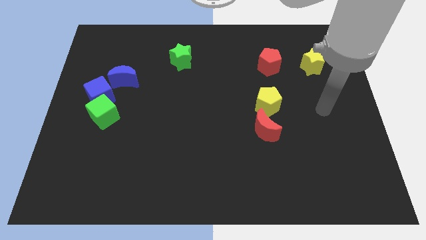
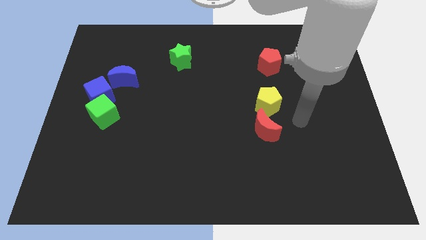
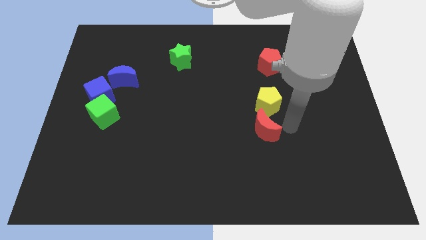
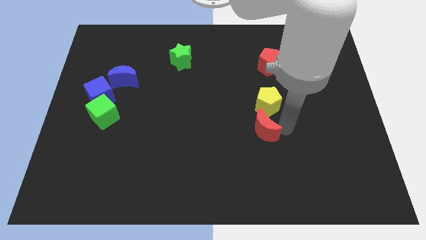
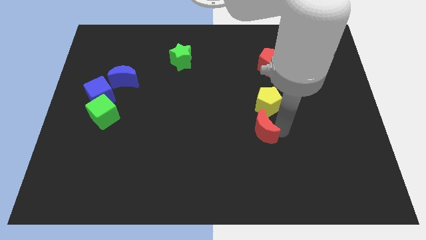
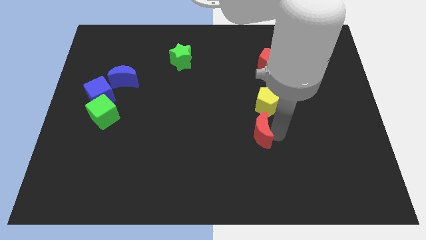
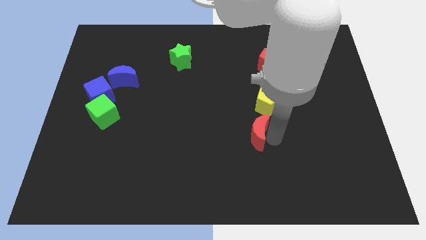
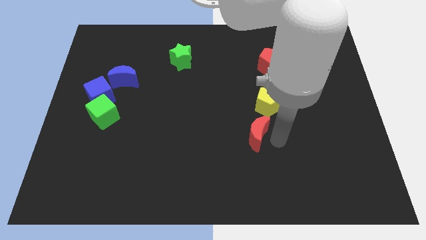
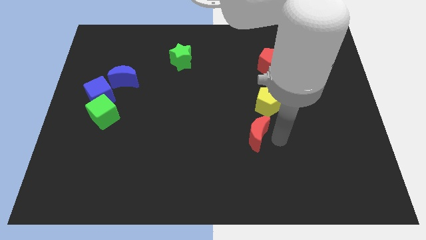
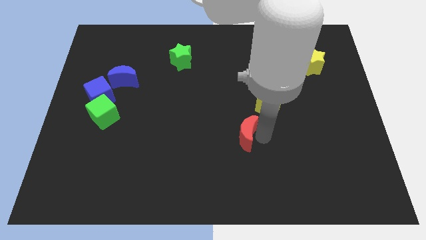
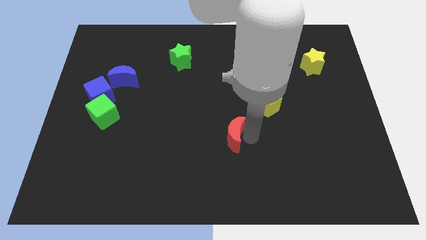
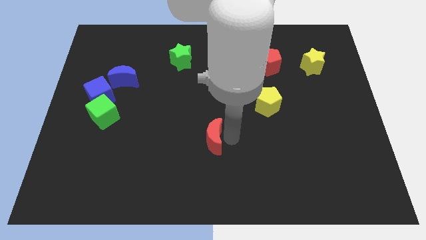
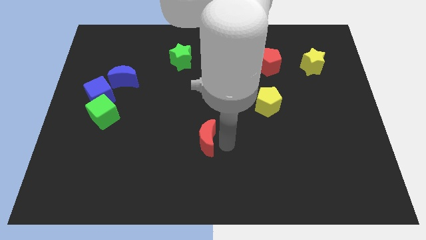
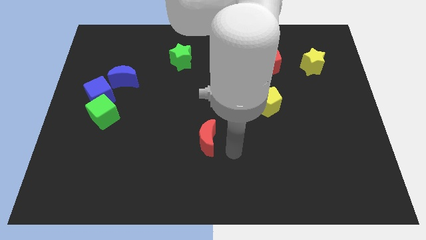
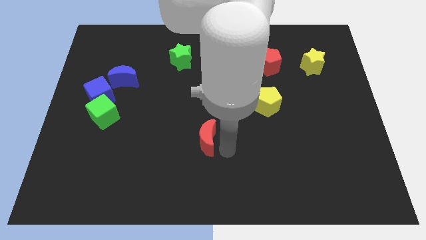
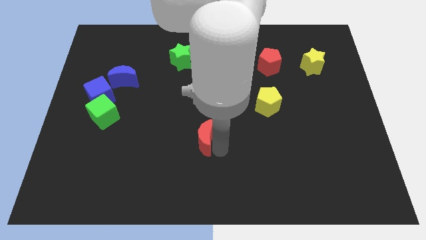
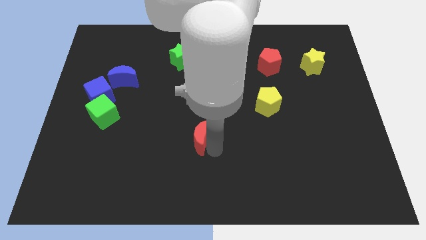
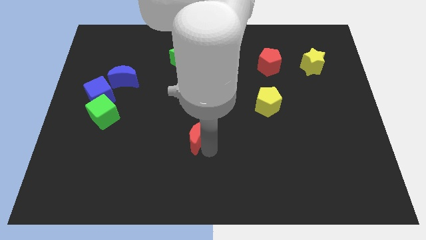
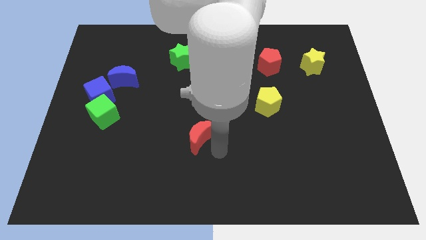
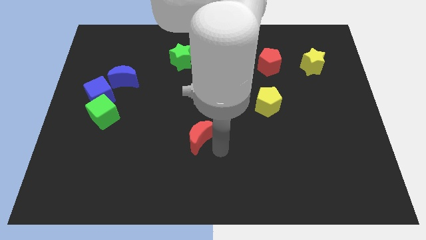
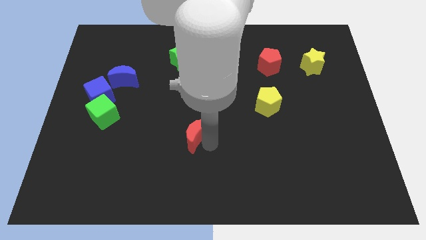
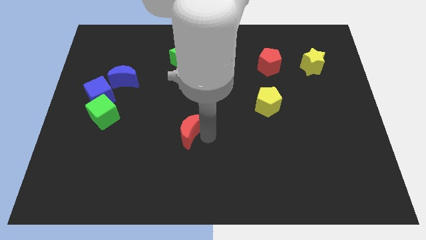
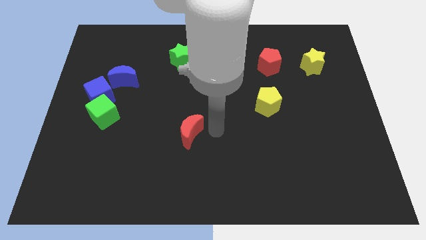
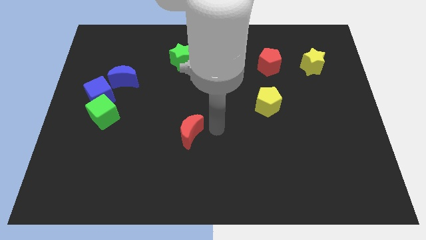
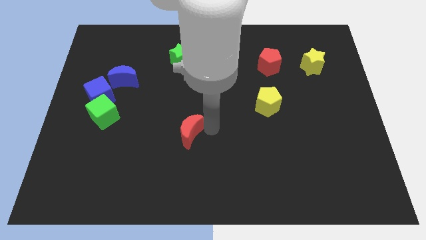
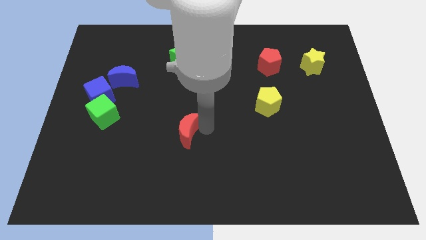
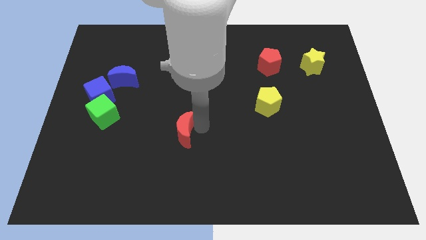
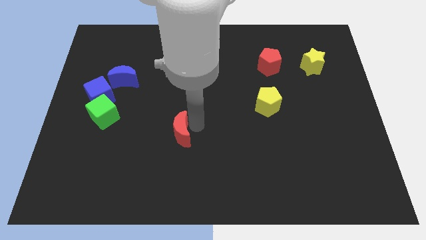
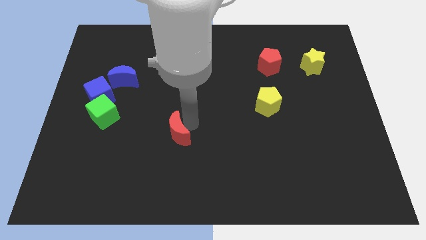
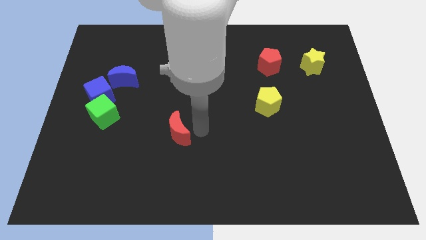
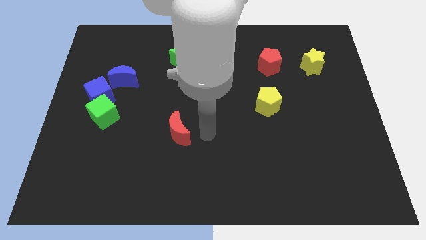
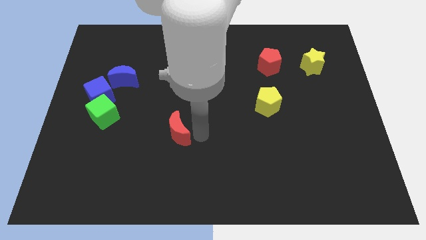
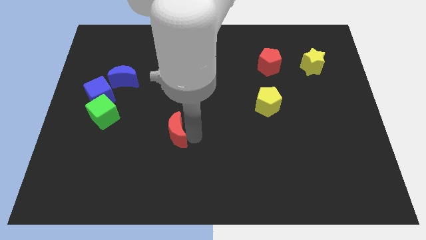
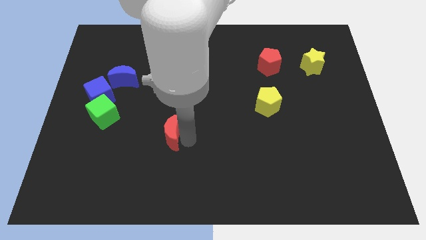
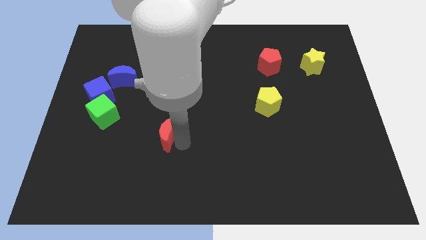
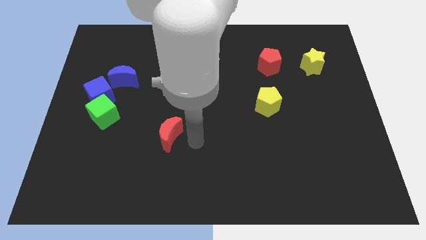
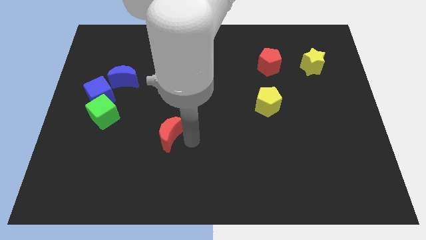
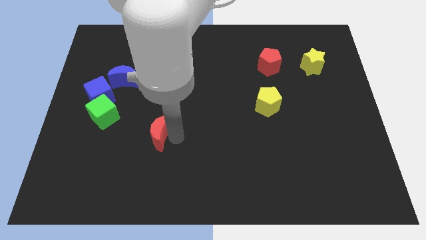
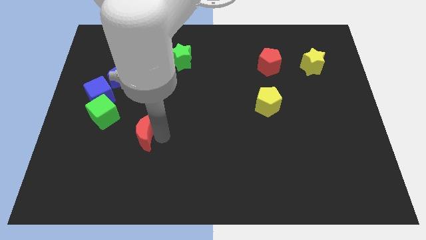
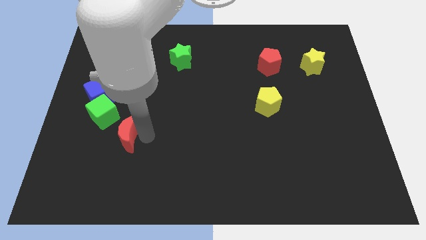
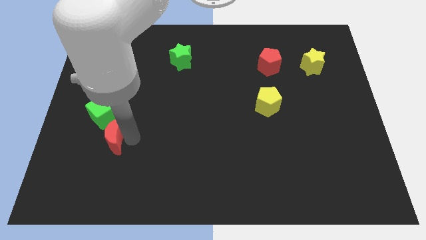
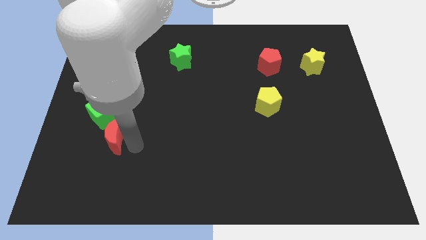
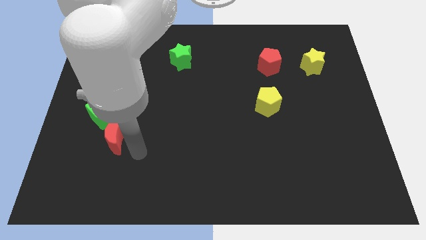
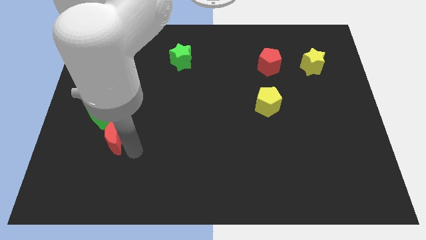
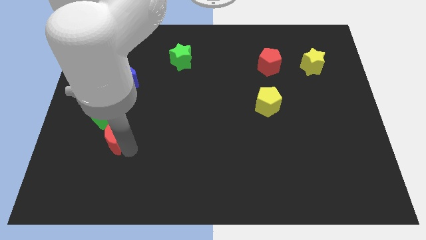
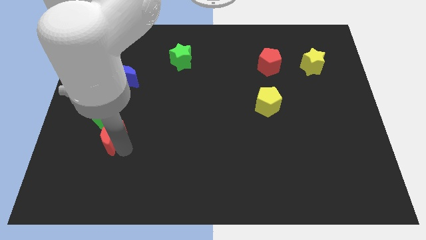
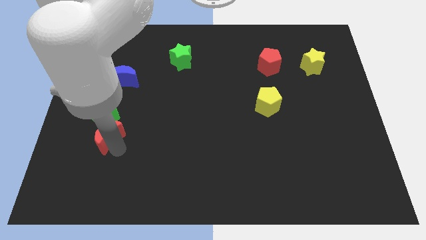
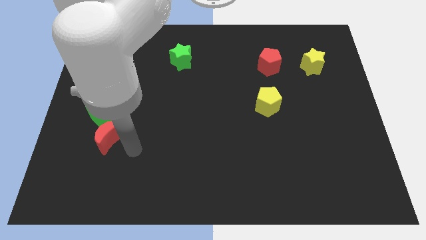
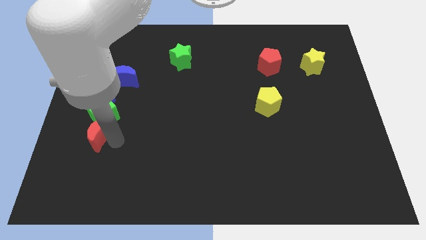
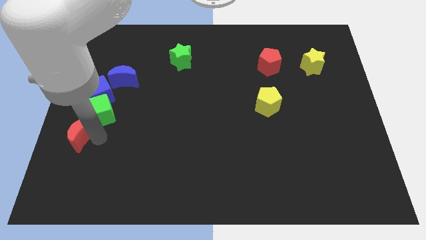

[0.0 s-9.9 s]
move the red moon to the center left

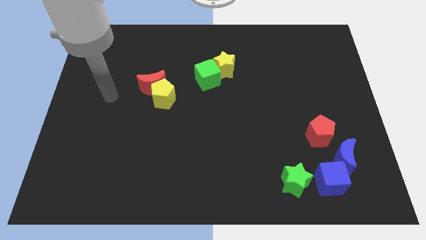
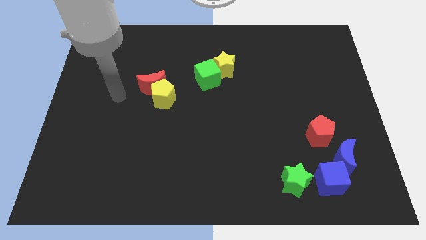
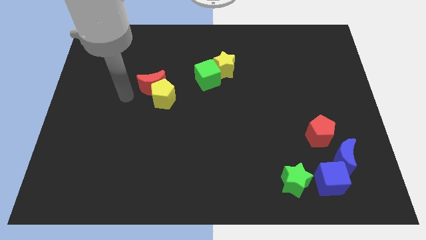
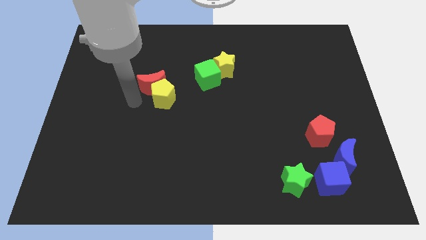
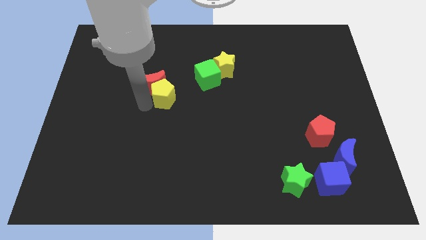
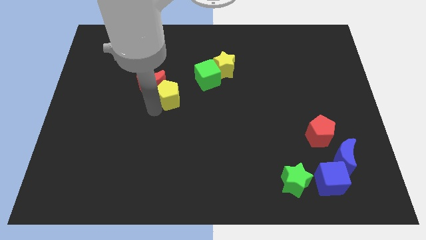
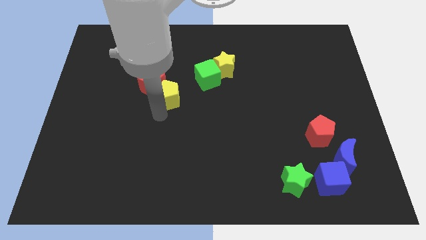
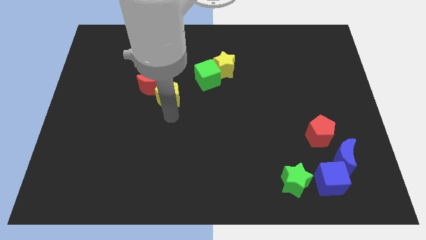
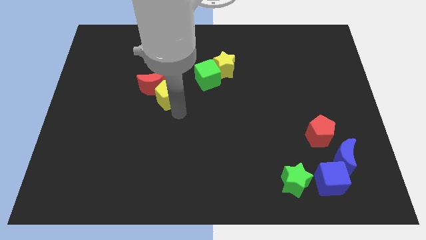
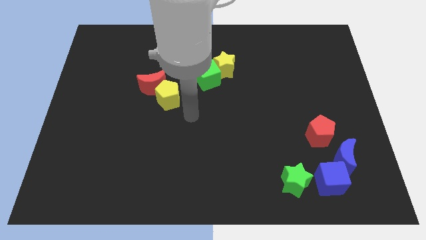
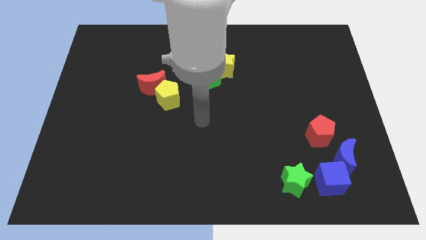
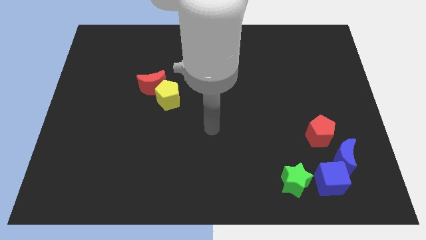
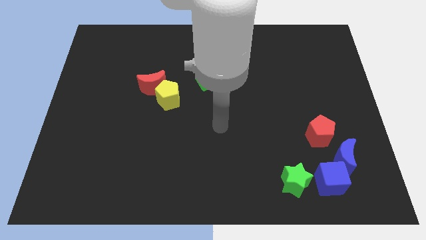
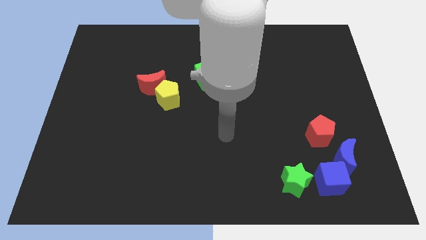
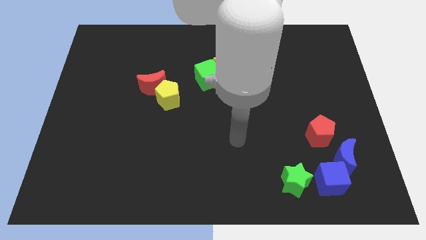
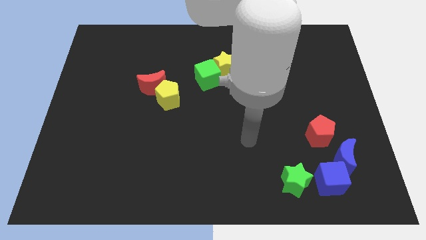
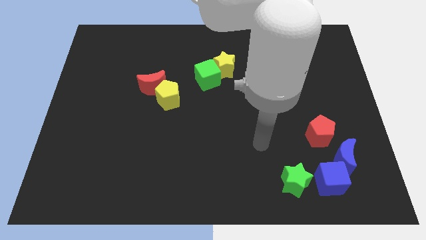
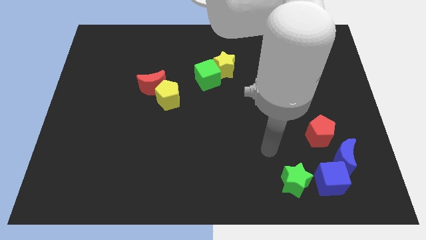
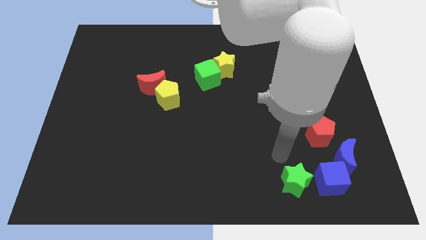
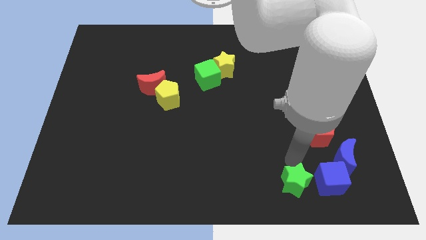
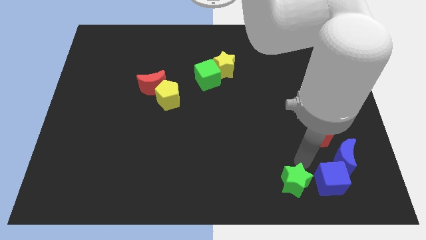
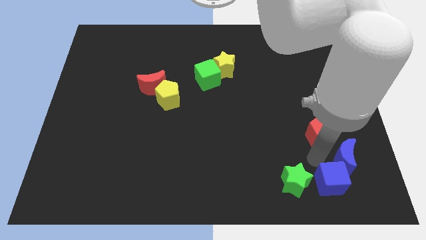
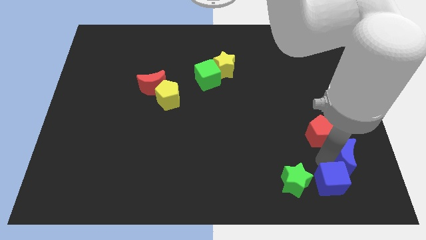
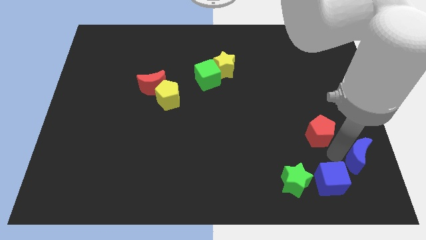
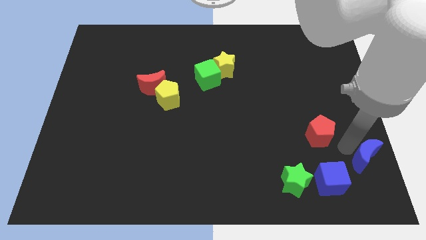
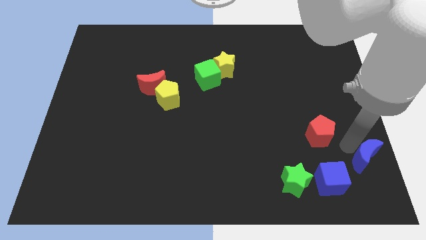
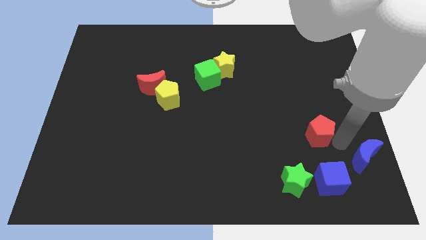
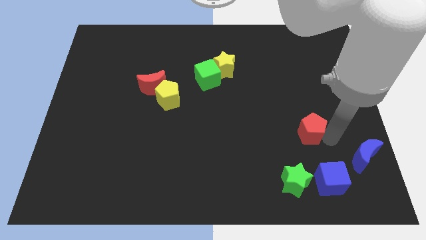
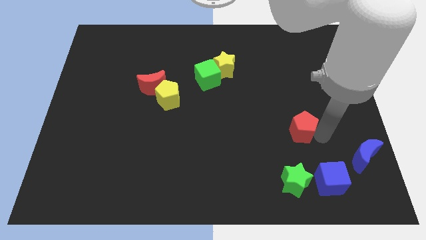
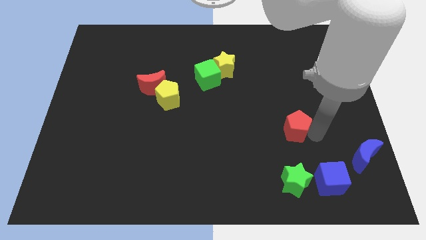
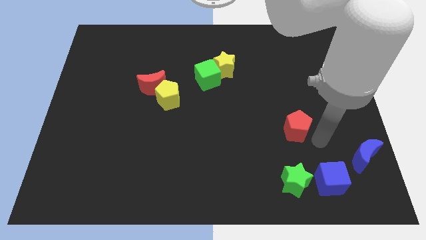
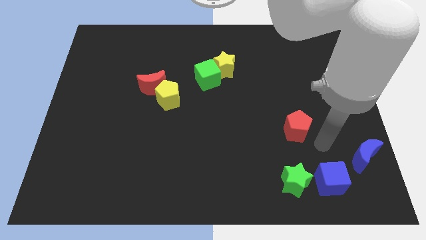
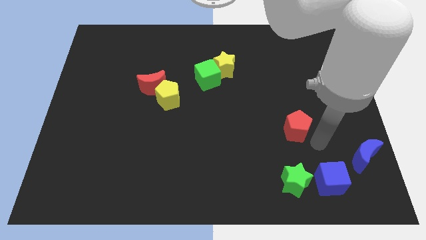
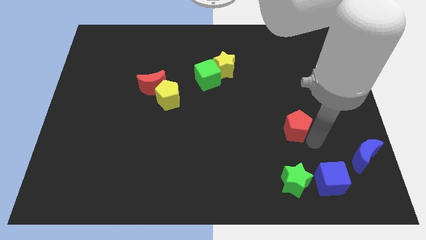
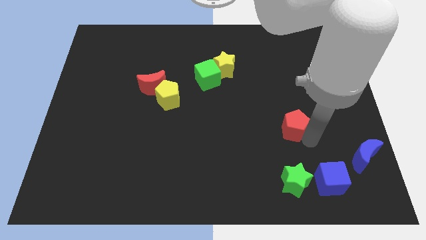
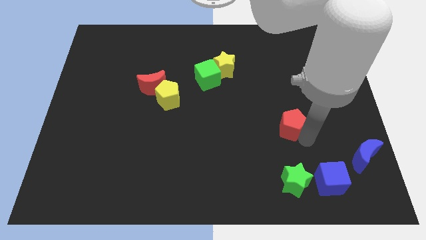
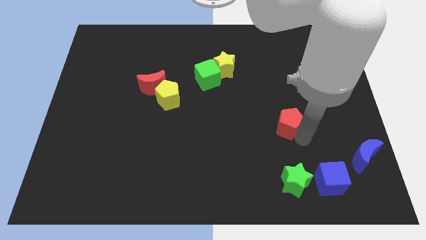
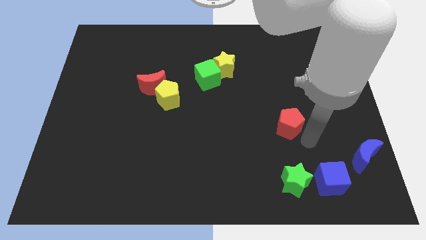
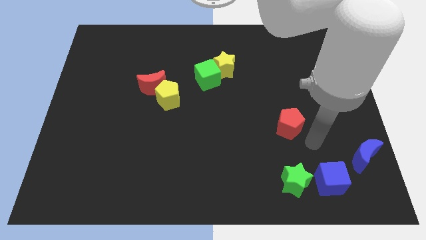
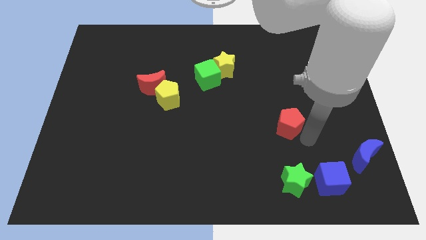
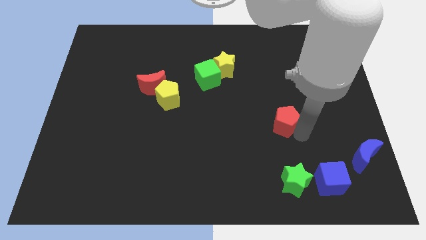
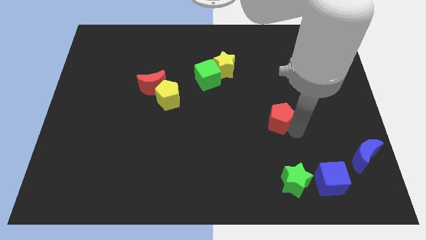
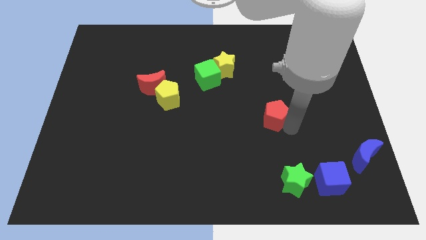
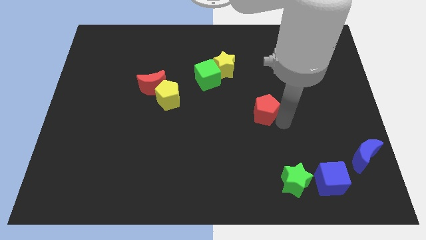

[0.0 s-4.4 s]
push the red pentagon to the center of the board
